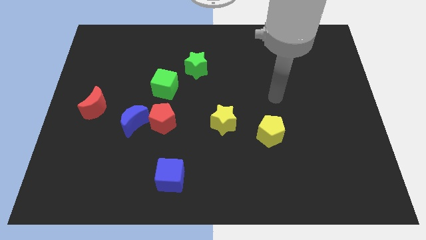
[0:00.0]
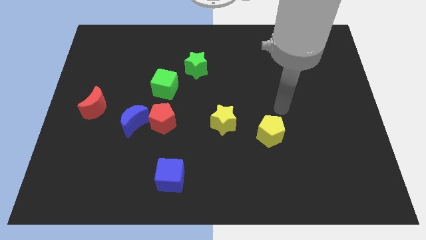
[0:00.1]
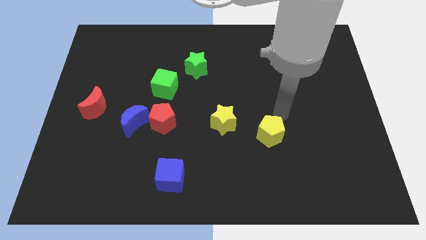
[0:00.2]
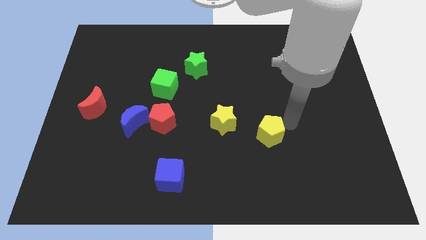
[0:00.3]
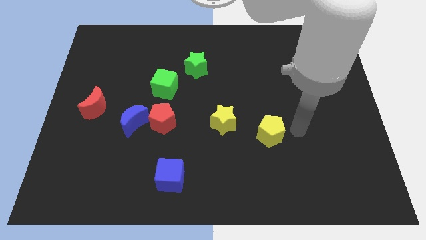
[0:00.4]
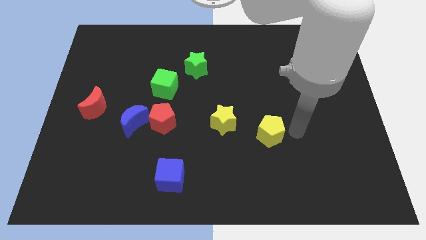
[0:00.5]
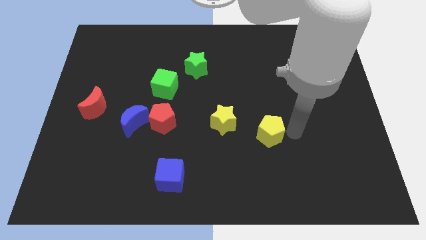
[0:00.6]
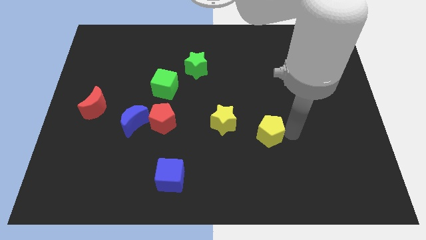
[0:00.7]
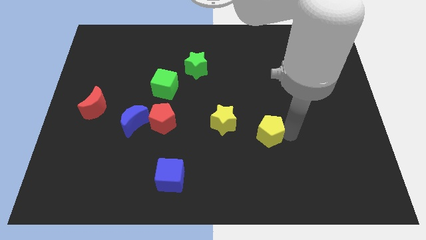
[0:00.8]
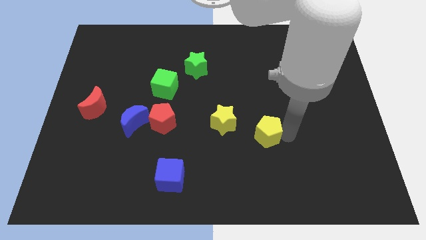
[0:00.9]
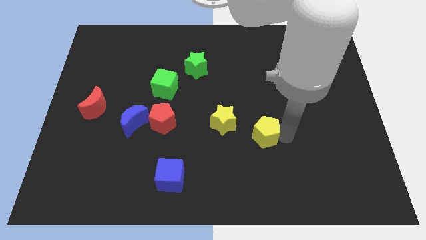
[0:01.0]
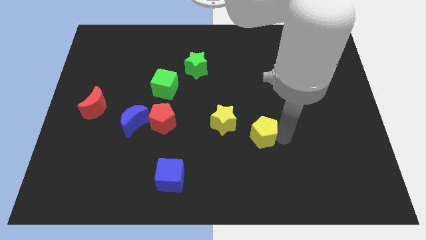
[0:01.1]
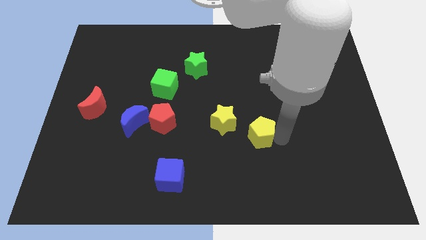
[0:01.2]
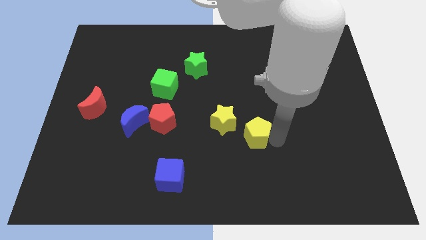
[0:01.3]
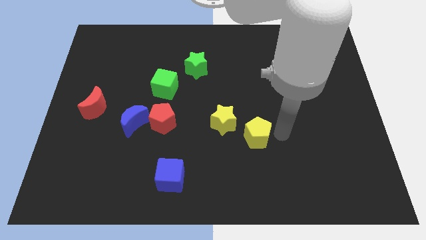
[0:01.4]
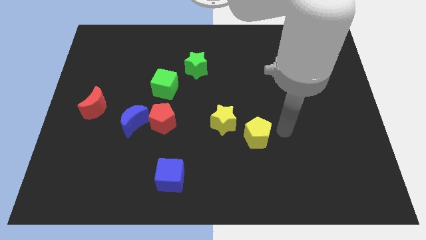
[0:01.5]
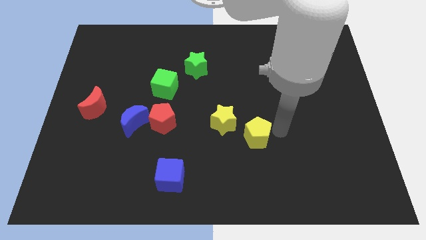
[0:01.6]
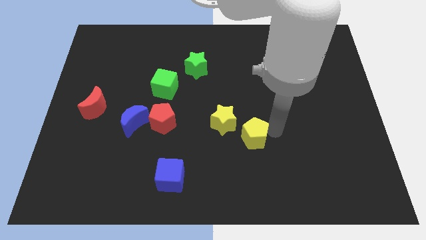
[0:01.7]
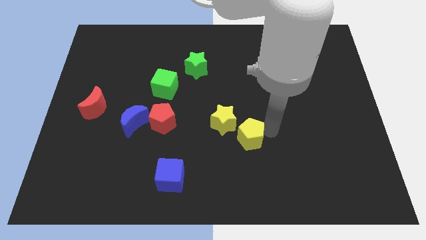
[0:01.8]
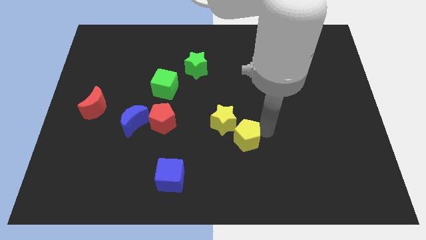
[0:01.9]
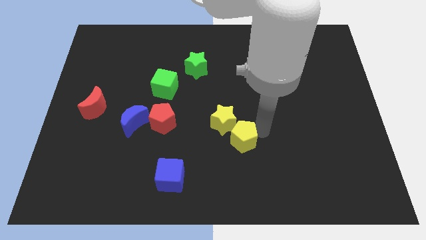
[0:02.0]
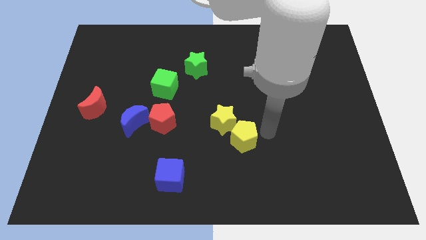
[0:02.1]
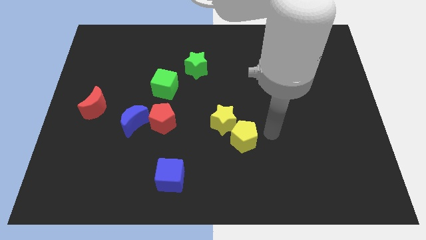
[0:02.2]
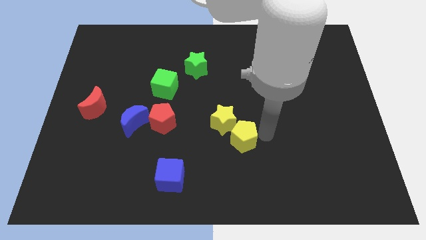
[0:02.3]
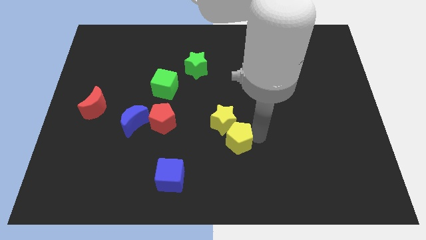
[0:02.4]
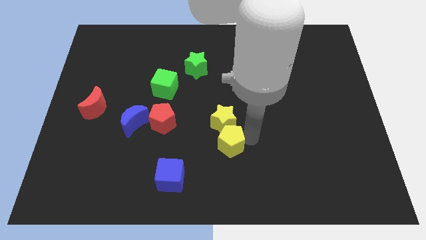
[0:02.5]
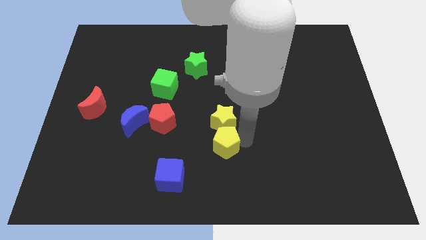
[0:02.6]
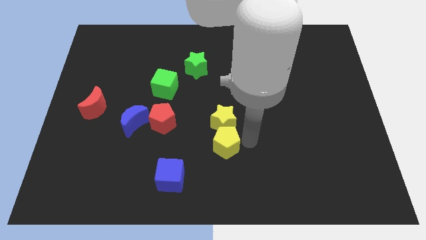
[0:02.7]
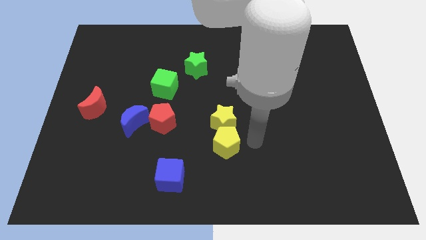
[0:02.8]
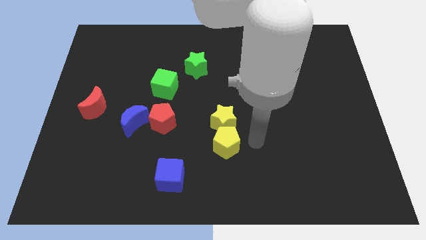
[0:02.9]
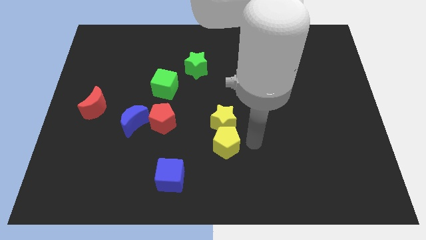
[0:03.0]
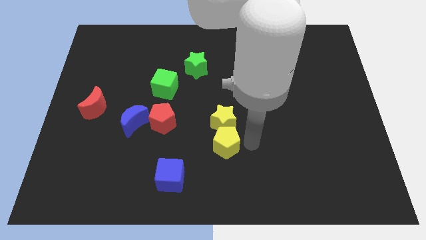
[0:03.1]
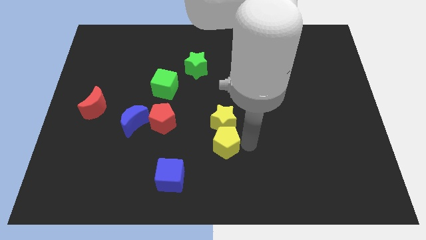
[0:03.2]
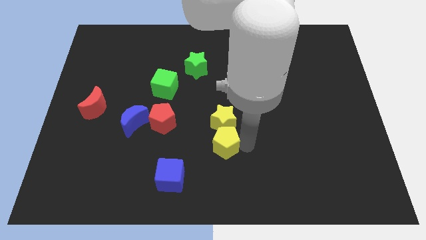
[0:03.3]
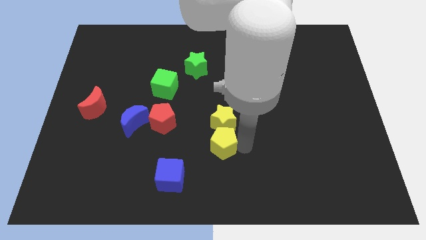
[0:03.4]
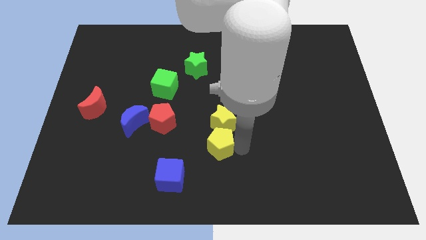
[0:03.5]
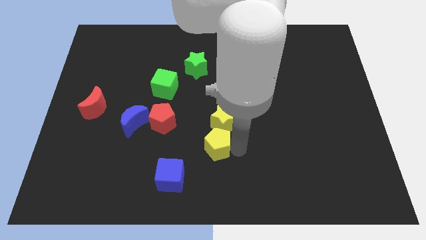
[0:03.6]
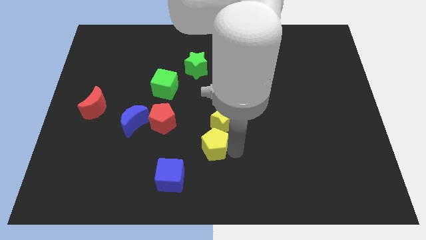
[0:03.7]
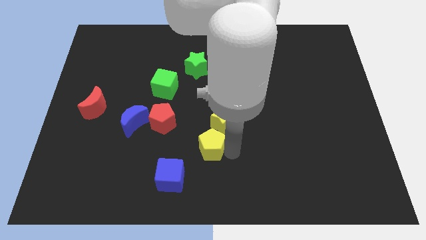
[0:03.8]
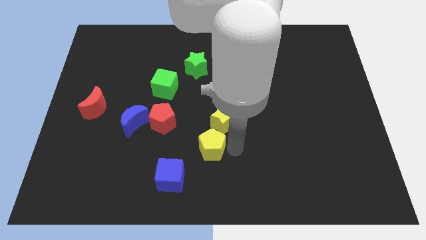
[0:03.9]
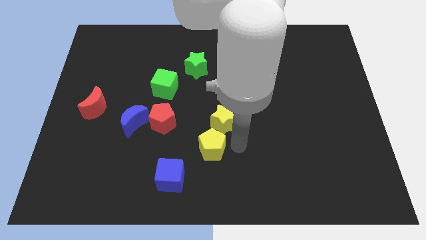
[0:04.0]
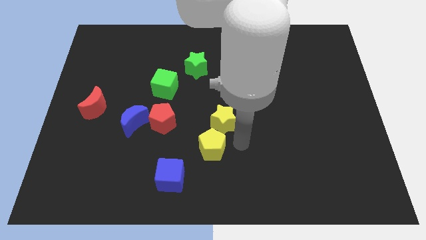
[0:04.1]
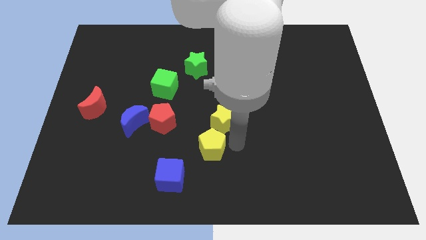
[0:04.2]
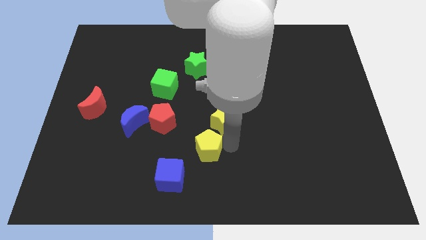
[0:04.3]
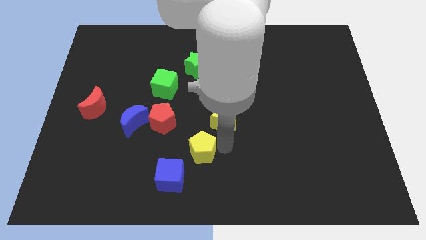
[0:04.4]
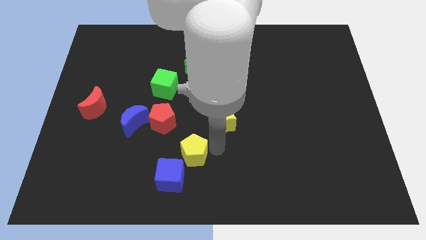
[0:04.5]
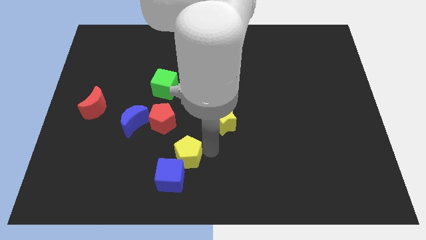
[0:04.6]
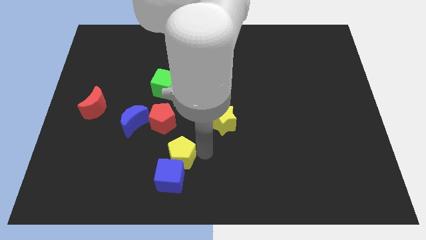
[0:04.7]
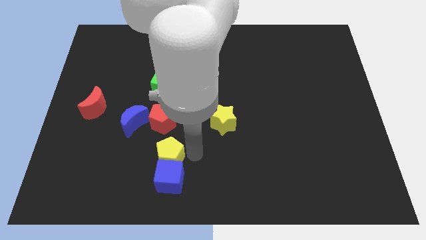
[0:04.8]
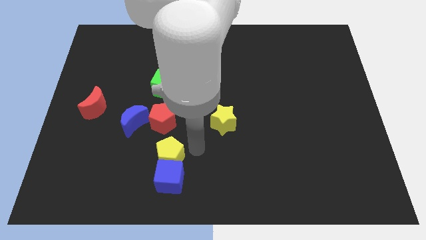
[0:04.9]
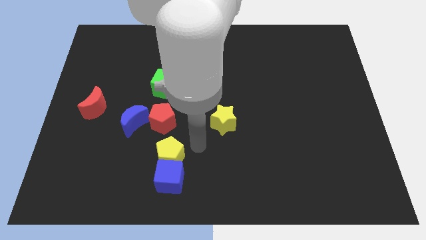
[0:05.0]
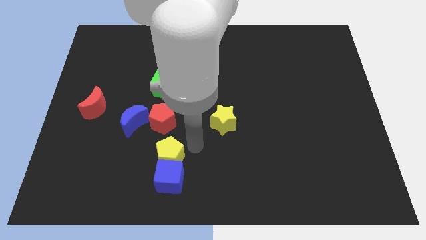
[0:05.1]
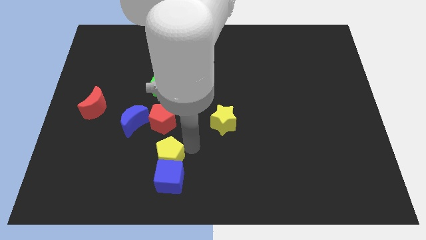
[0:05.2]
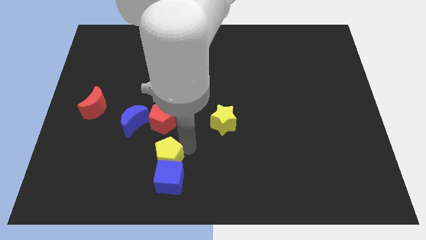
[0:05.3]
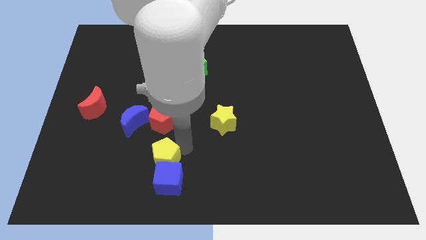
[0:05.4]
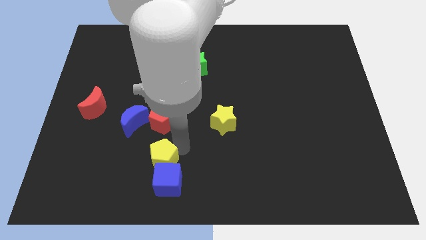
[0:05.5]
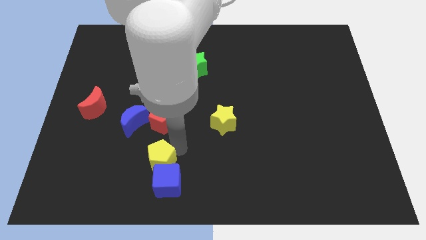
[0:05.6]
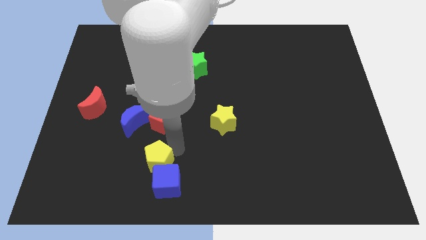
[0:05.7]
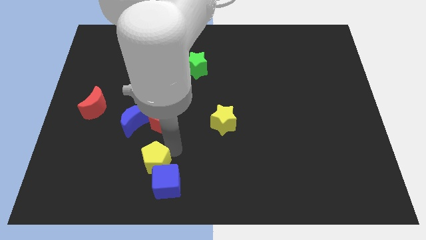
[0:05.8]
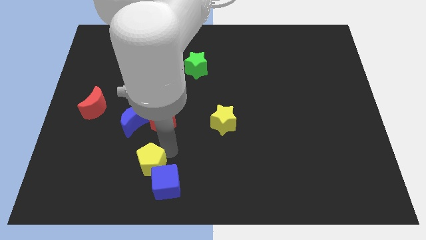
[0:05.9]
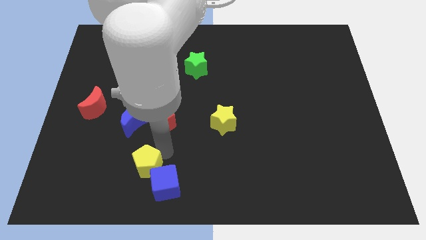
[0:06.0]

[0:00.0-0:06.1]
push the yellow pentagon to the left side of the blue cube

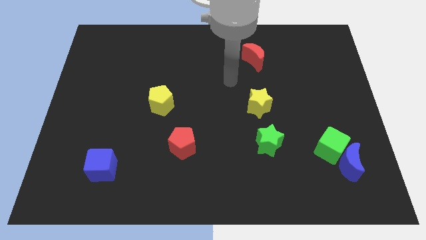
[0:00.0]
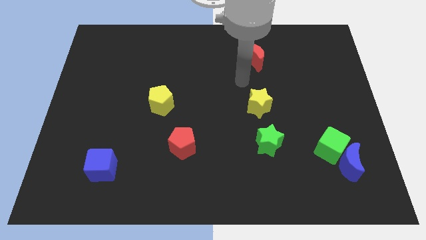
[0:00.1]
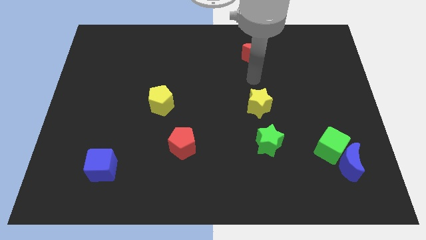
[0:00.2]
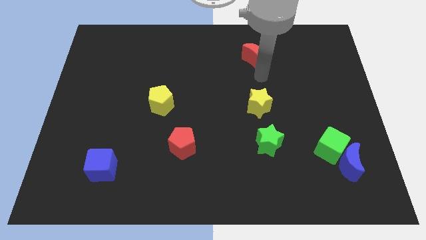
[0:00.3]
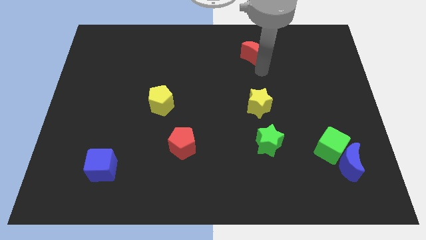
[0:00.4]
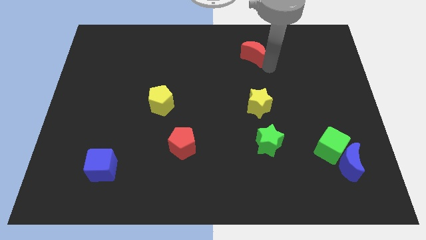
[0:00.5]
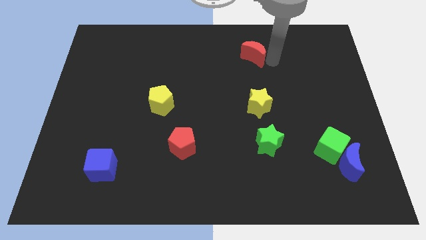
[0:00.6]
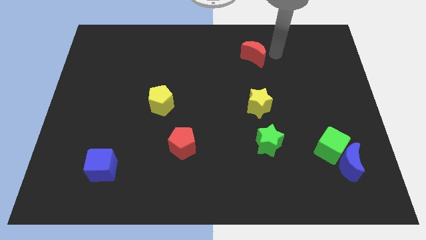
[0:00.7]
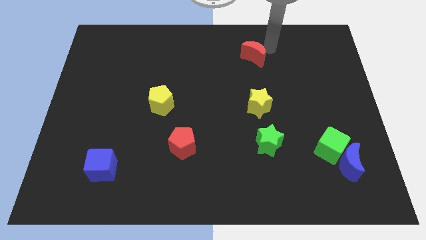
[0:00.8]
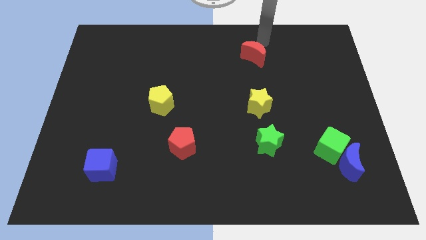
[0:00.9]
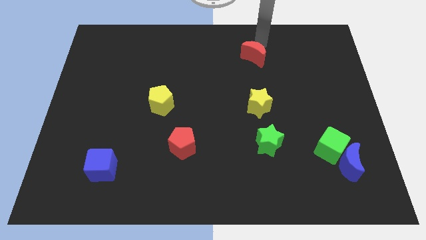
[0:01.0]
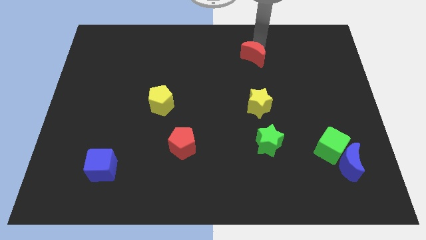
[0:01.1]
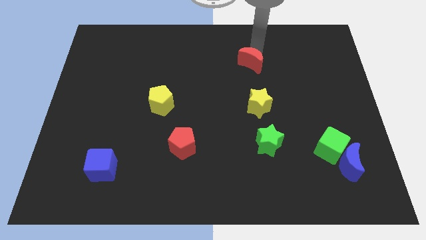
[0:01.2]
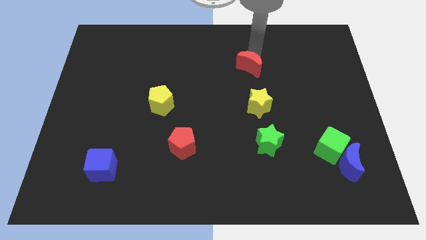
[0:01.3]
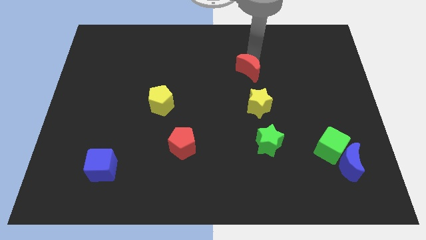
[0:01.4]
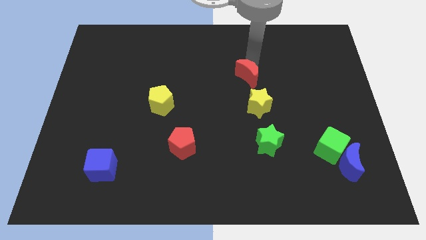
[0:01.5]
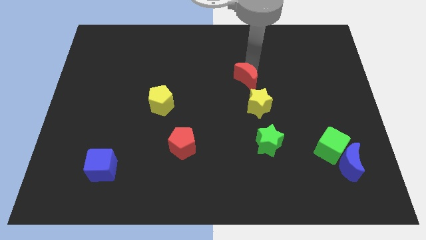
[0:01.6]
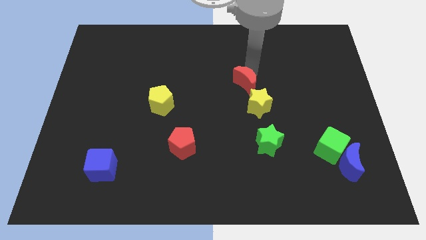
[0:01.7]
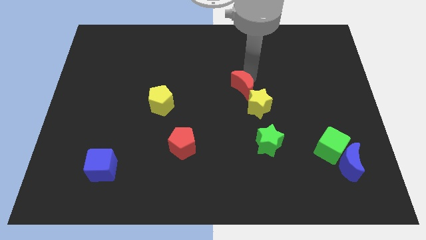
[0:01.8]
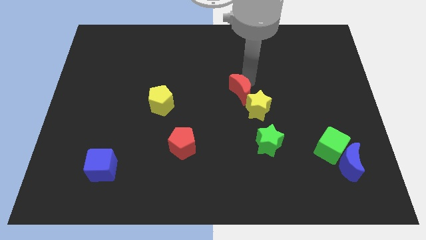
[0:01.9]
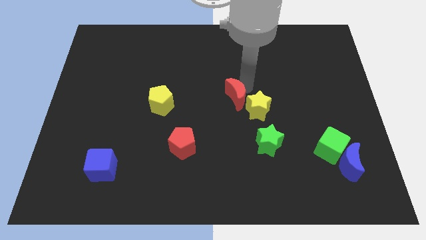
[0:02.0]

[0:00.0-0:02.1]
push the red moon to the left side of the yellow star
